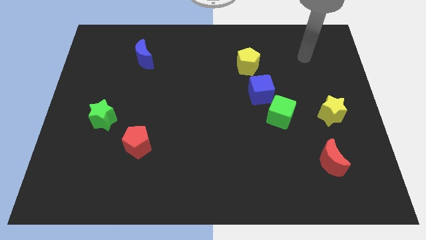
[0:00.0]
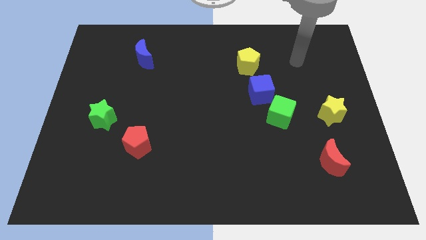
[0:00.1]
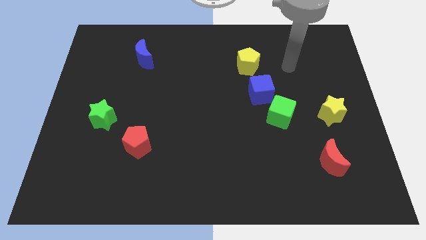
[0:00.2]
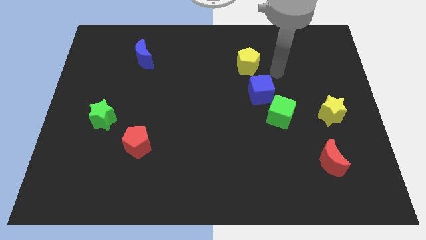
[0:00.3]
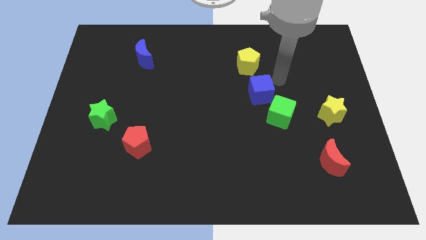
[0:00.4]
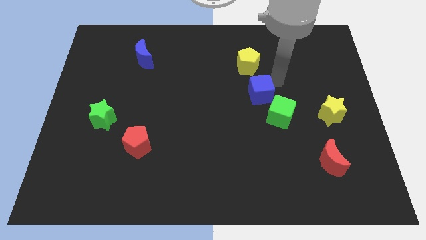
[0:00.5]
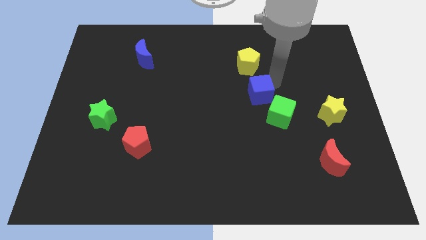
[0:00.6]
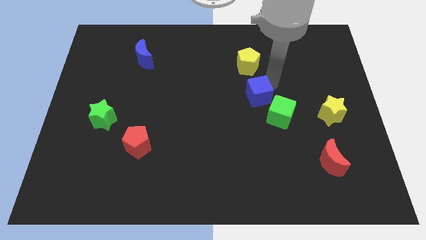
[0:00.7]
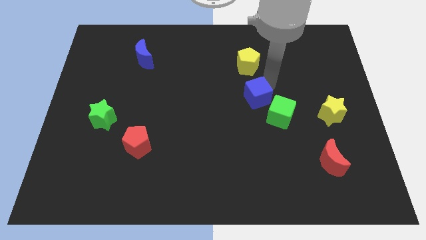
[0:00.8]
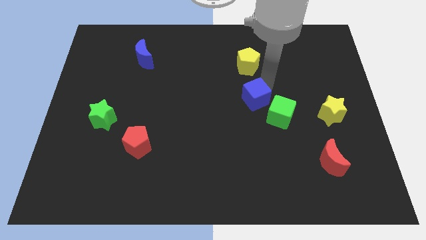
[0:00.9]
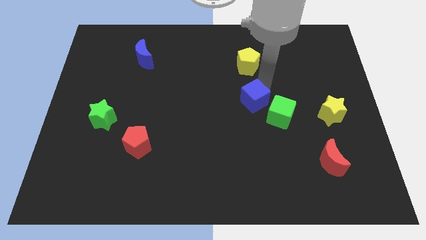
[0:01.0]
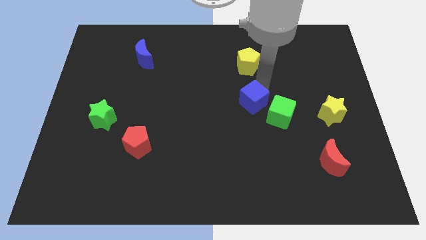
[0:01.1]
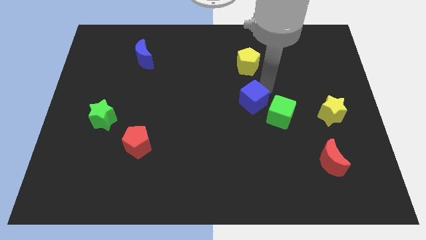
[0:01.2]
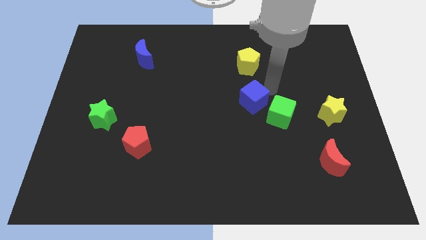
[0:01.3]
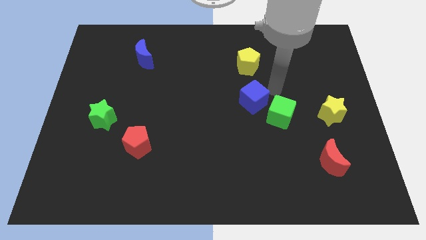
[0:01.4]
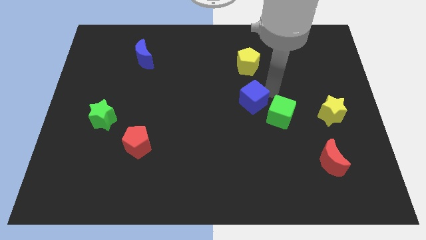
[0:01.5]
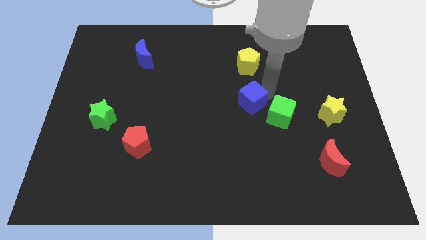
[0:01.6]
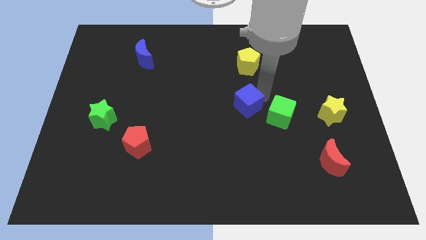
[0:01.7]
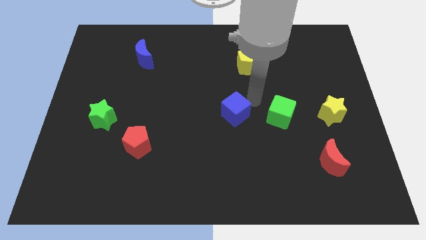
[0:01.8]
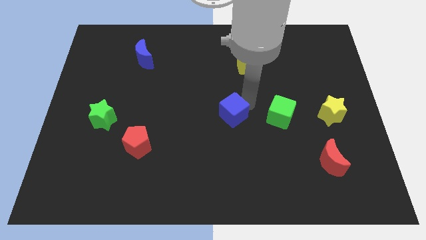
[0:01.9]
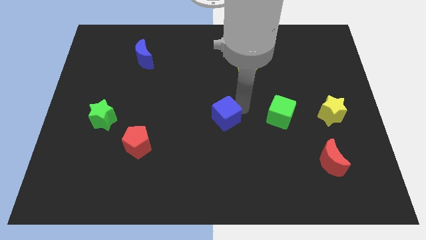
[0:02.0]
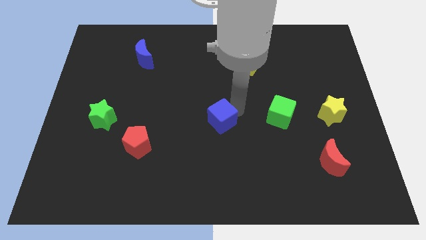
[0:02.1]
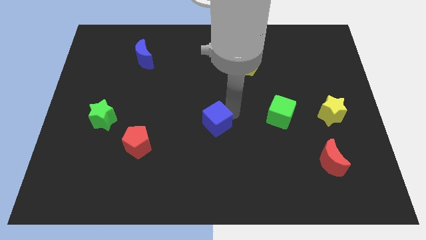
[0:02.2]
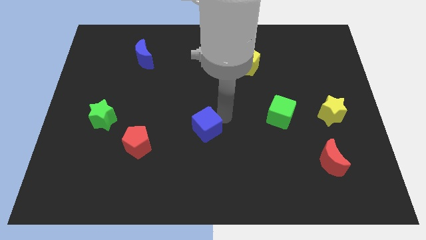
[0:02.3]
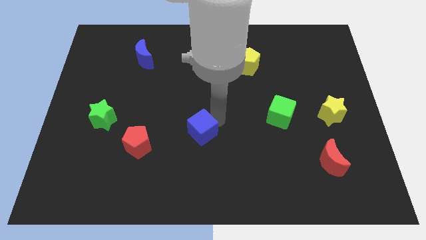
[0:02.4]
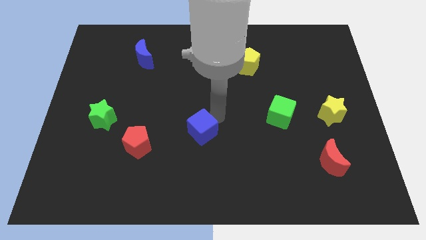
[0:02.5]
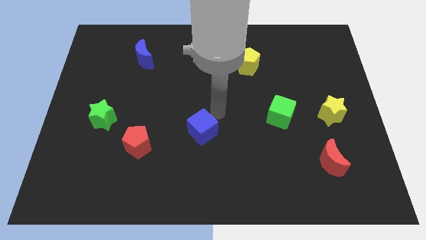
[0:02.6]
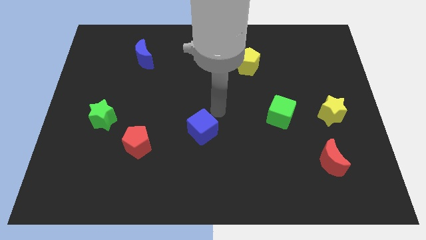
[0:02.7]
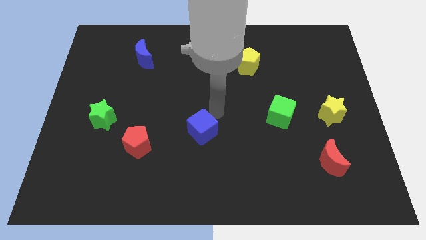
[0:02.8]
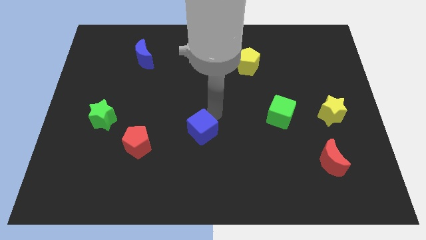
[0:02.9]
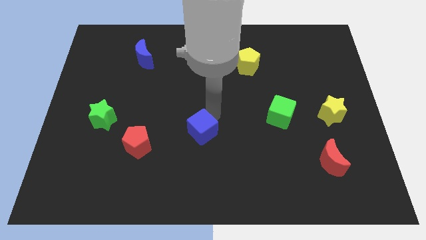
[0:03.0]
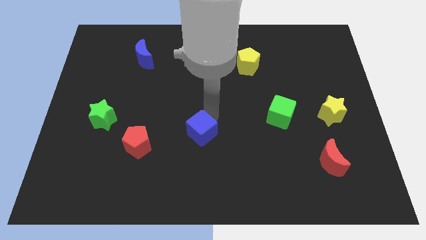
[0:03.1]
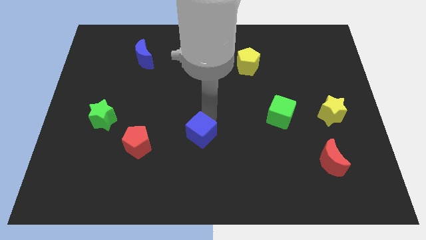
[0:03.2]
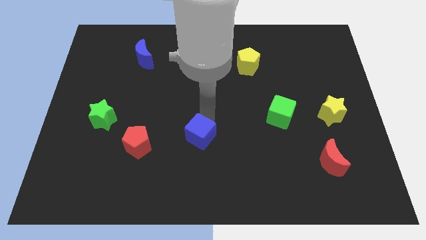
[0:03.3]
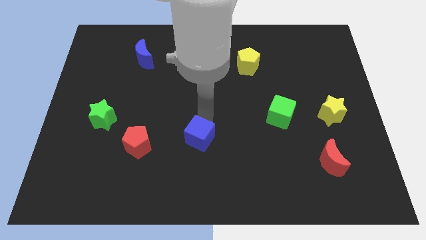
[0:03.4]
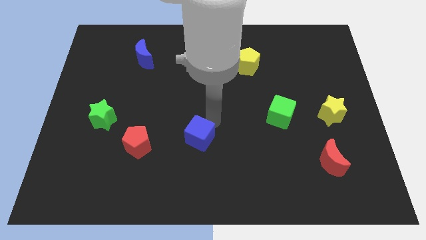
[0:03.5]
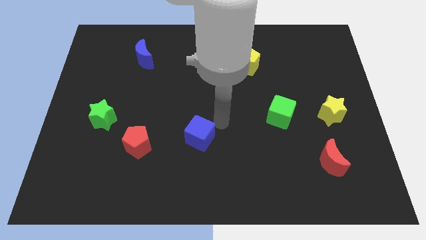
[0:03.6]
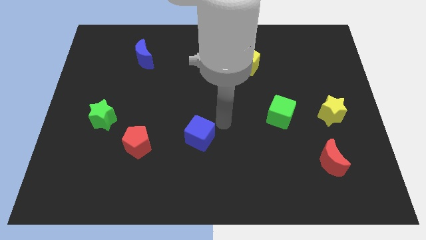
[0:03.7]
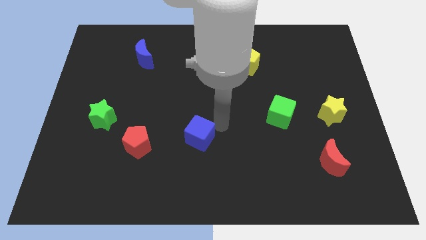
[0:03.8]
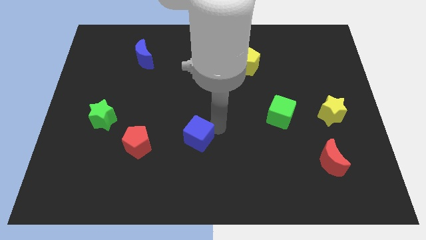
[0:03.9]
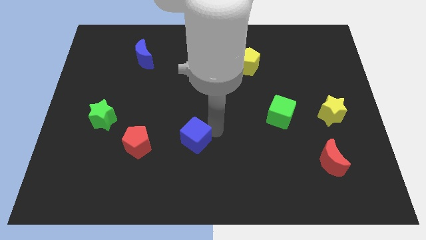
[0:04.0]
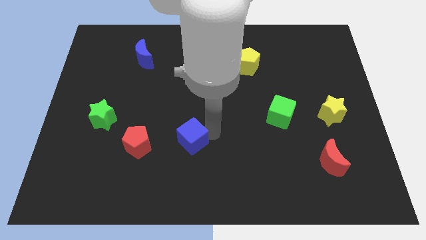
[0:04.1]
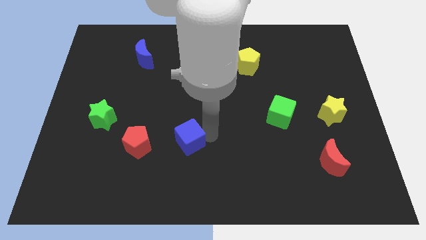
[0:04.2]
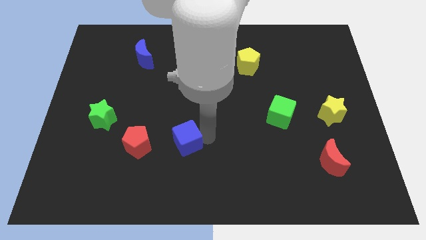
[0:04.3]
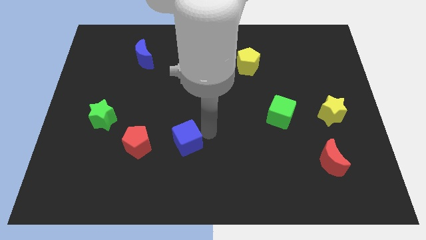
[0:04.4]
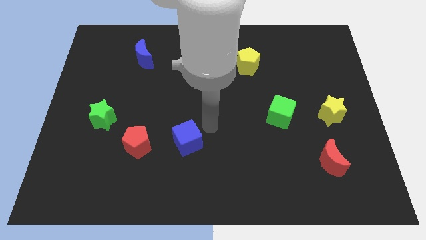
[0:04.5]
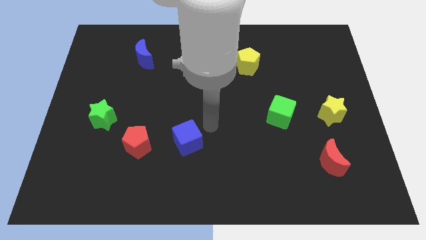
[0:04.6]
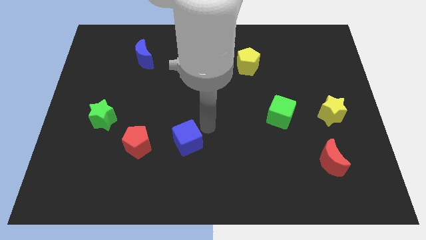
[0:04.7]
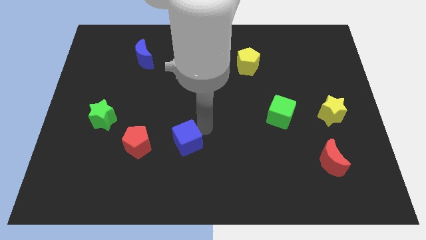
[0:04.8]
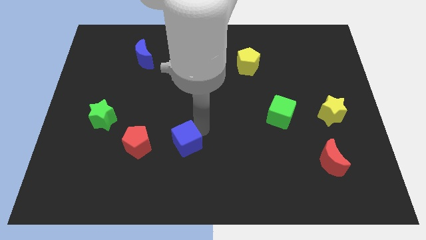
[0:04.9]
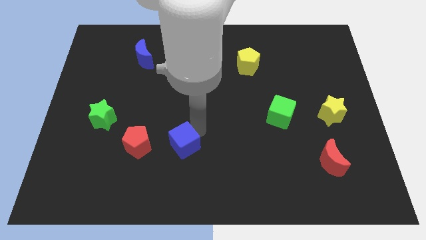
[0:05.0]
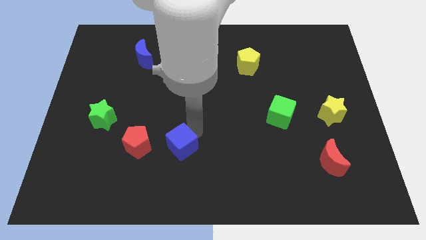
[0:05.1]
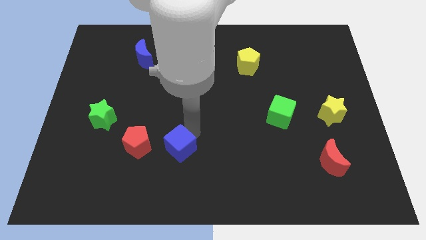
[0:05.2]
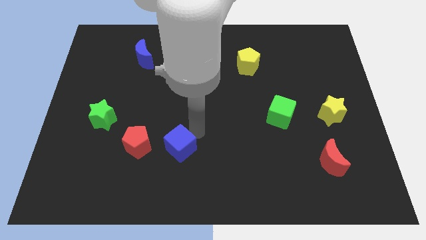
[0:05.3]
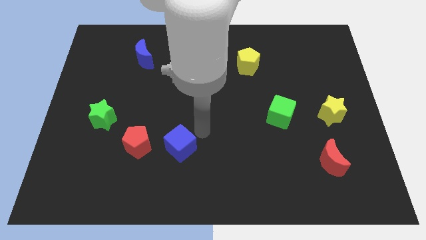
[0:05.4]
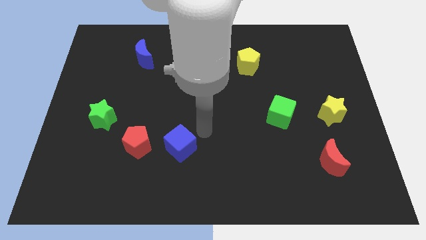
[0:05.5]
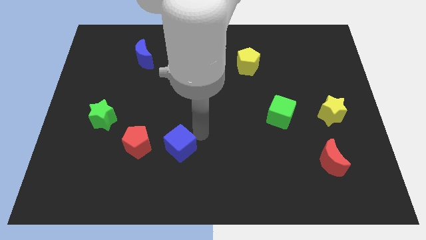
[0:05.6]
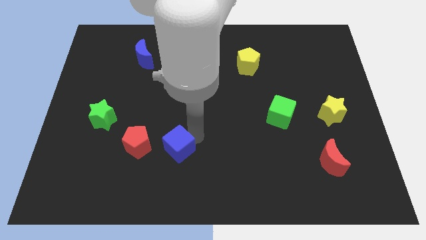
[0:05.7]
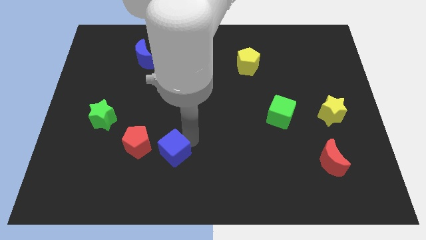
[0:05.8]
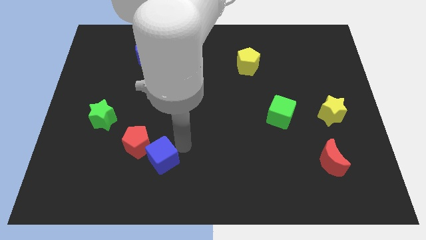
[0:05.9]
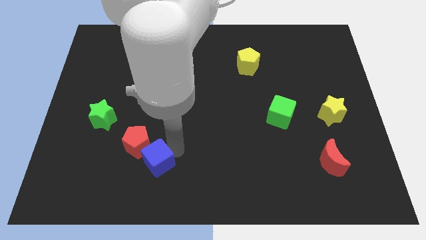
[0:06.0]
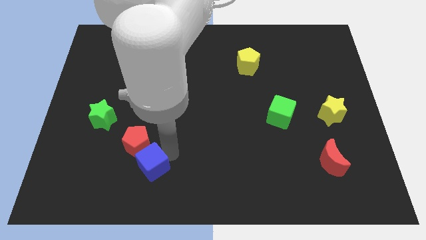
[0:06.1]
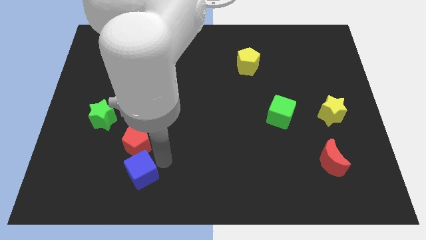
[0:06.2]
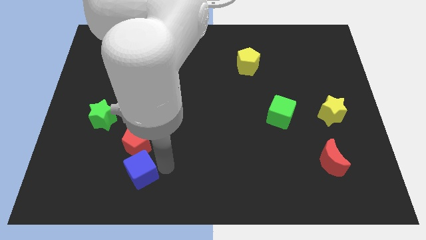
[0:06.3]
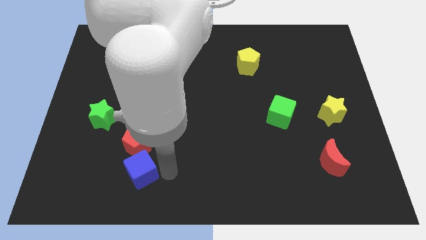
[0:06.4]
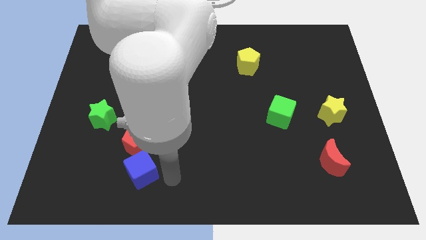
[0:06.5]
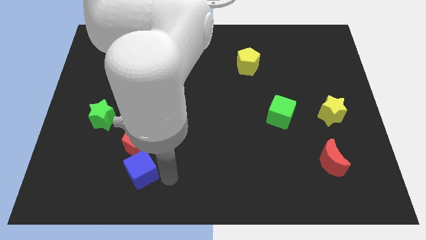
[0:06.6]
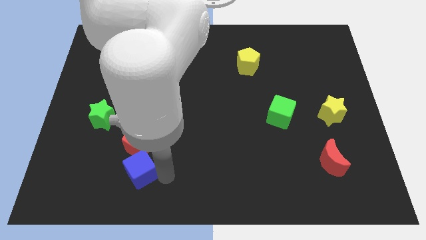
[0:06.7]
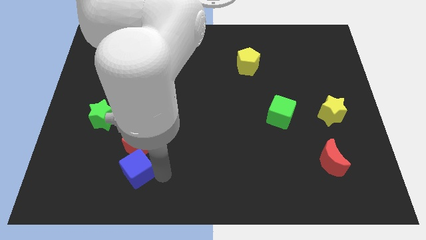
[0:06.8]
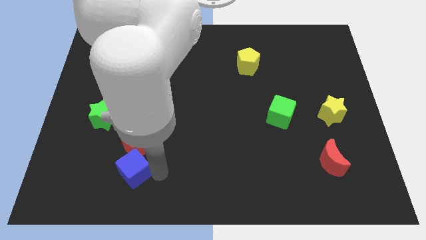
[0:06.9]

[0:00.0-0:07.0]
push the blue cube to the bottom left side of the red pentagon
